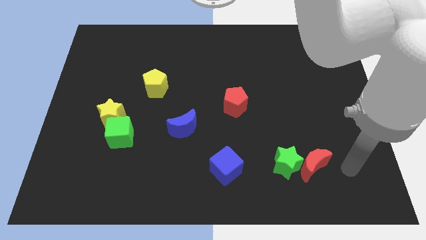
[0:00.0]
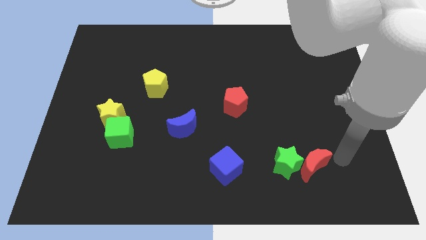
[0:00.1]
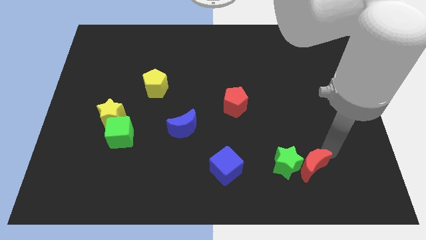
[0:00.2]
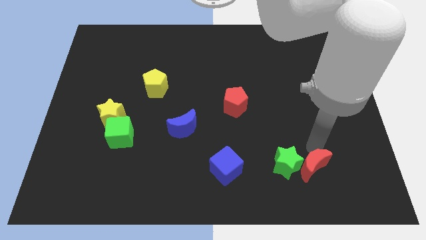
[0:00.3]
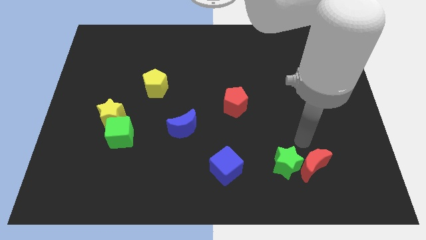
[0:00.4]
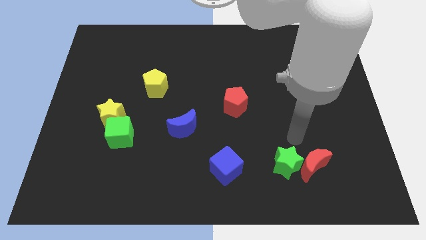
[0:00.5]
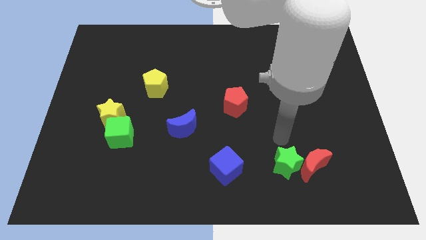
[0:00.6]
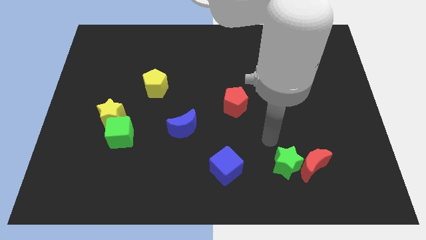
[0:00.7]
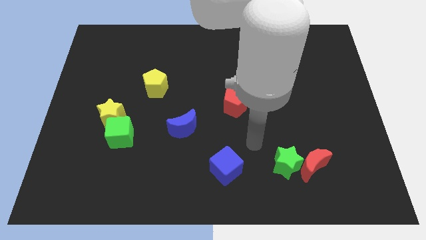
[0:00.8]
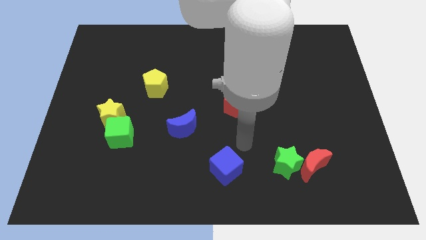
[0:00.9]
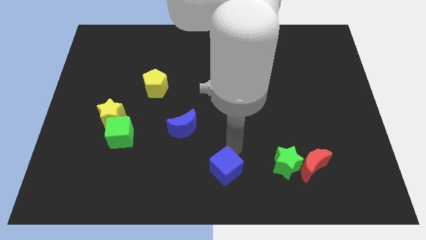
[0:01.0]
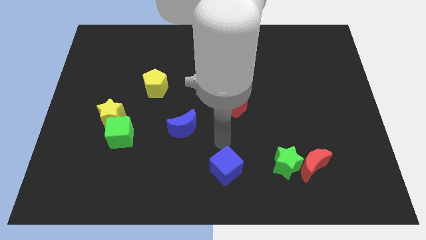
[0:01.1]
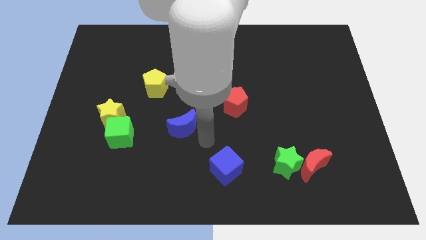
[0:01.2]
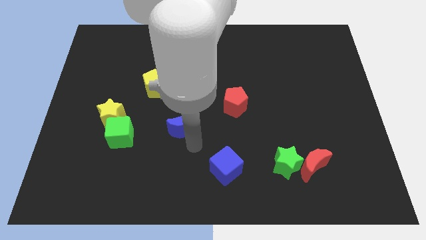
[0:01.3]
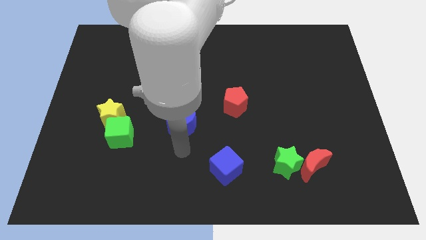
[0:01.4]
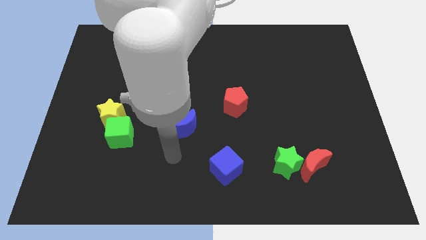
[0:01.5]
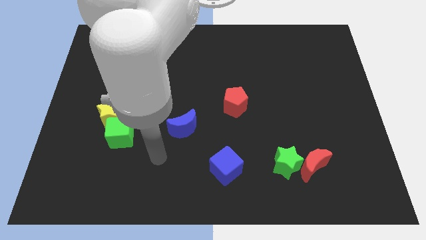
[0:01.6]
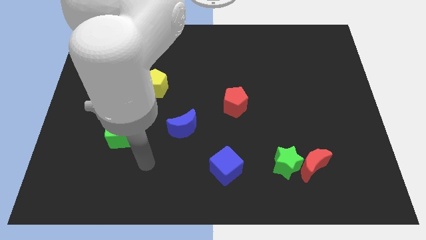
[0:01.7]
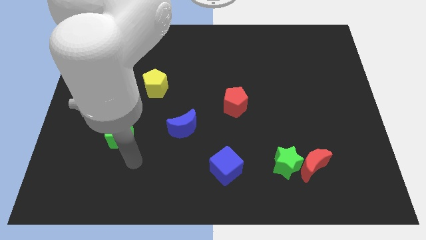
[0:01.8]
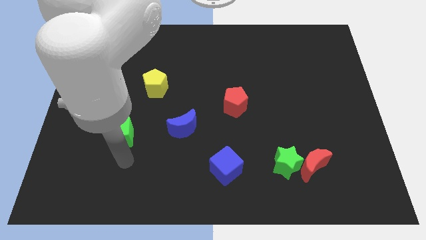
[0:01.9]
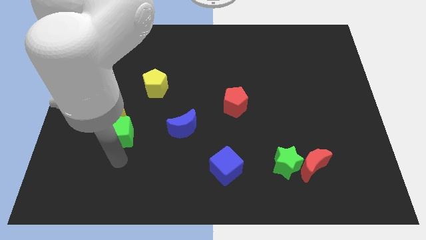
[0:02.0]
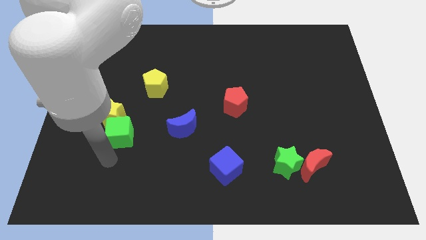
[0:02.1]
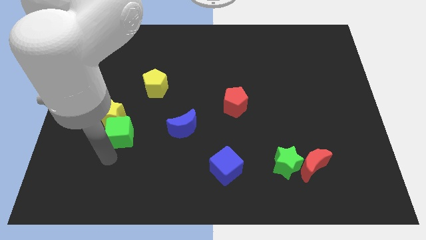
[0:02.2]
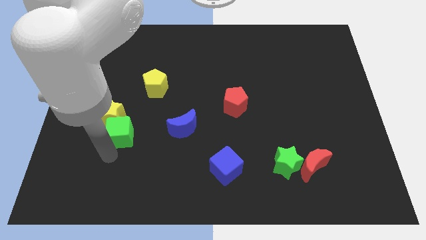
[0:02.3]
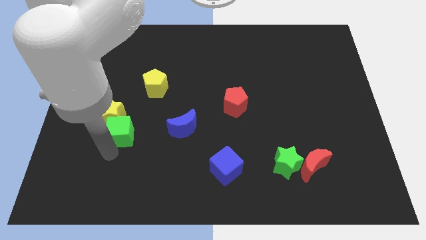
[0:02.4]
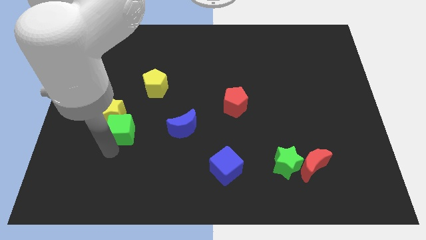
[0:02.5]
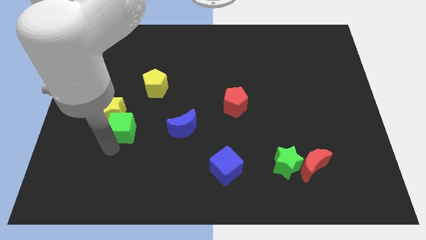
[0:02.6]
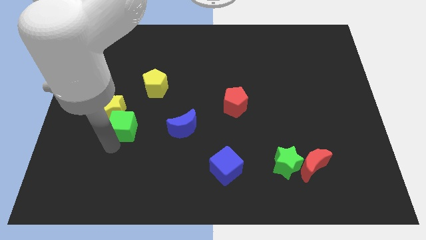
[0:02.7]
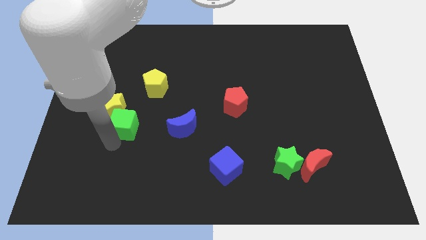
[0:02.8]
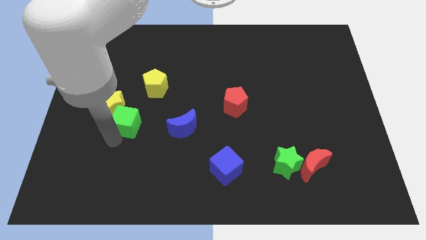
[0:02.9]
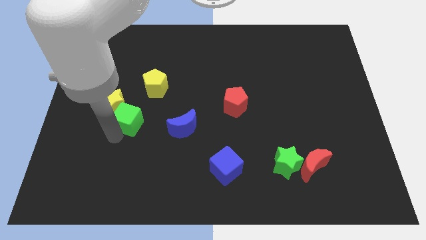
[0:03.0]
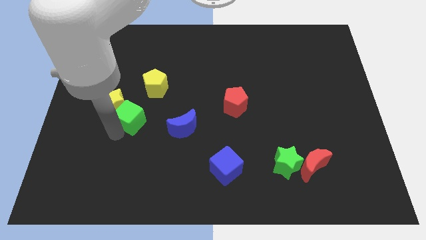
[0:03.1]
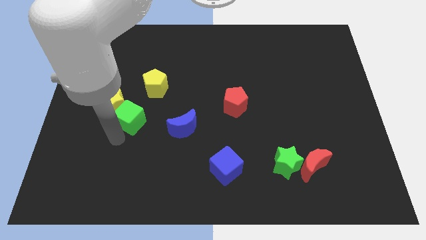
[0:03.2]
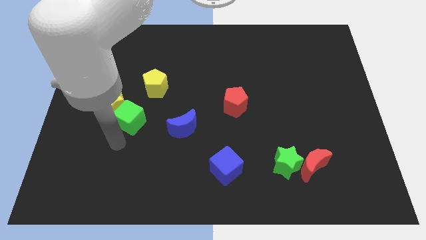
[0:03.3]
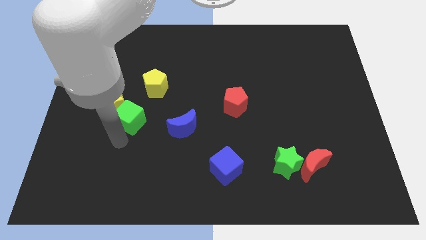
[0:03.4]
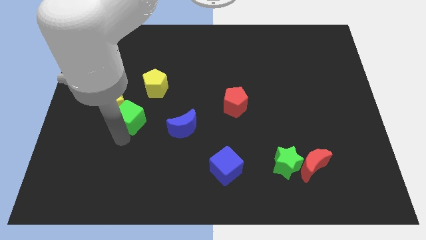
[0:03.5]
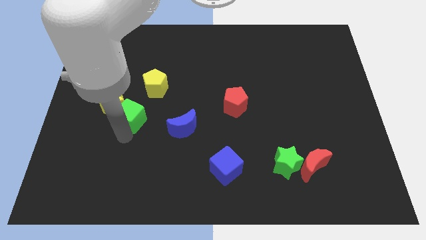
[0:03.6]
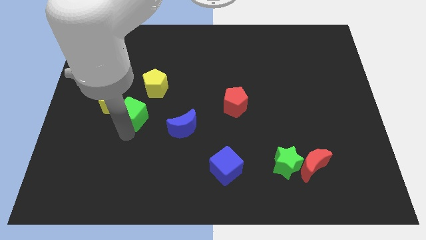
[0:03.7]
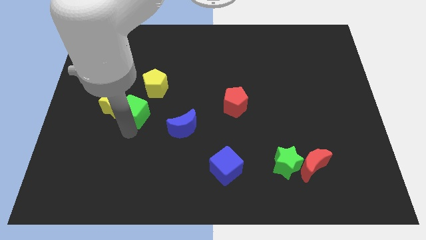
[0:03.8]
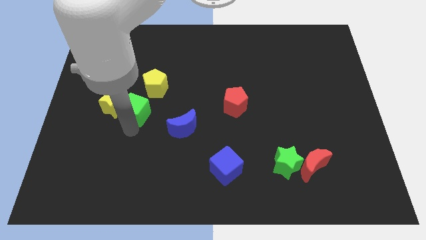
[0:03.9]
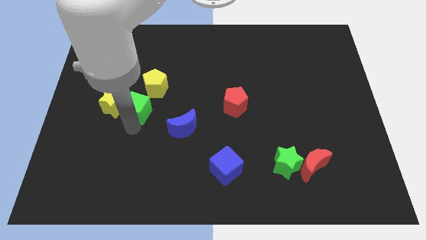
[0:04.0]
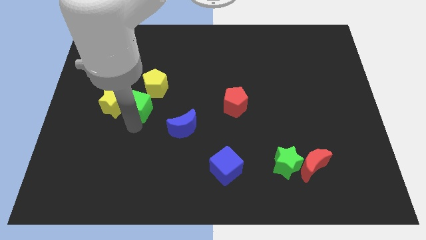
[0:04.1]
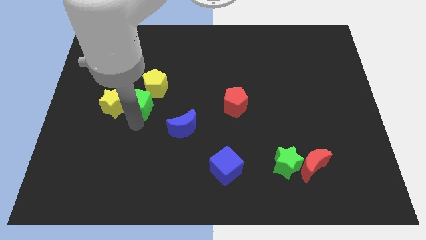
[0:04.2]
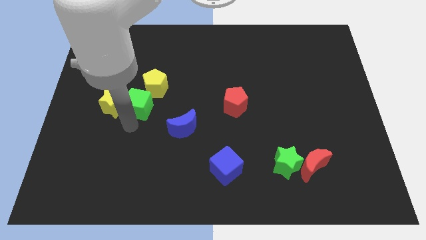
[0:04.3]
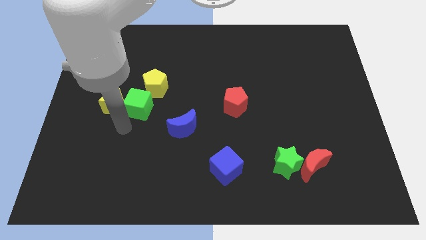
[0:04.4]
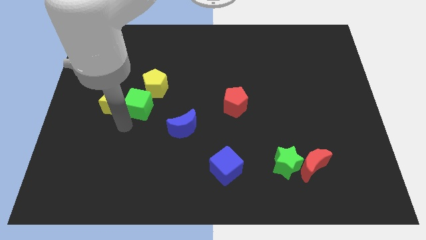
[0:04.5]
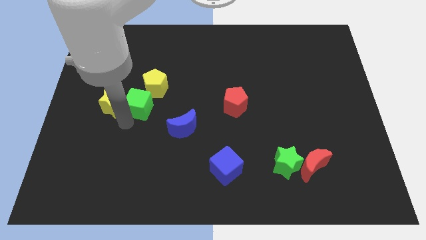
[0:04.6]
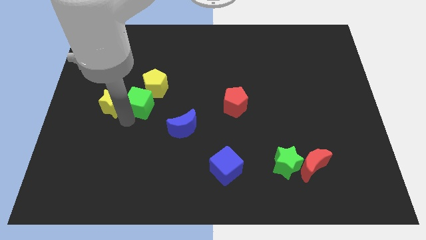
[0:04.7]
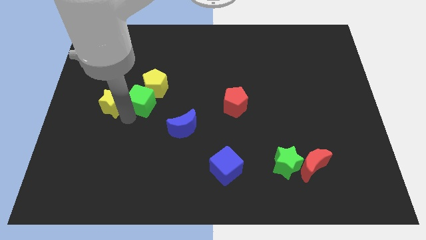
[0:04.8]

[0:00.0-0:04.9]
slide the green cube close to the yellow pentagon

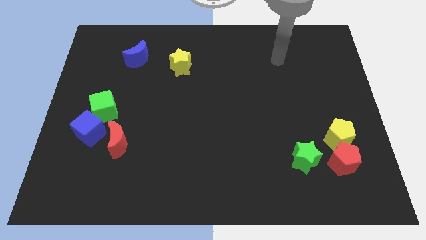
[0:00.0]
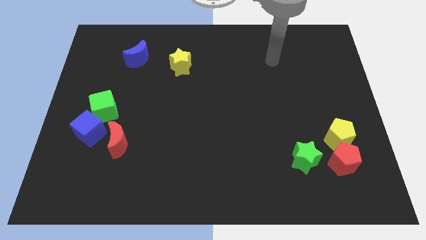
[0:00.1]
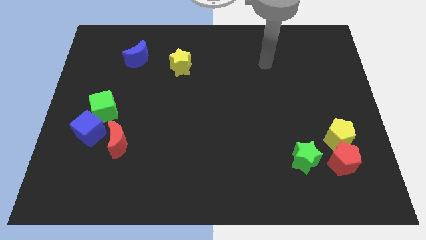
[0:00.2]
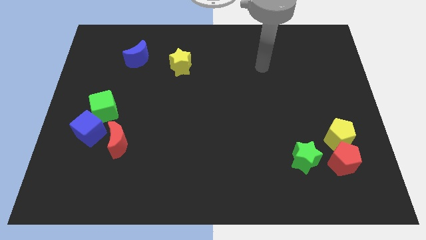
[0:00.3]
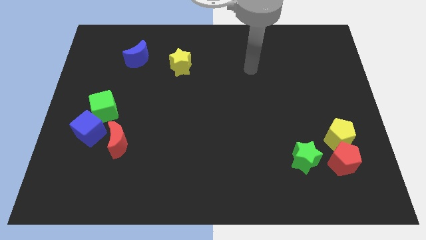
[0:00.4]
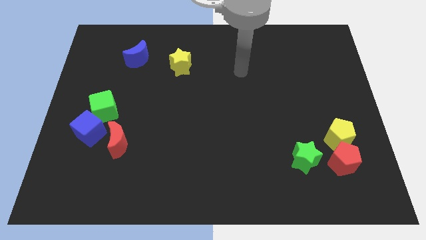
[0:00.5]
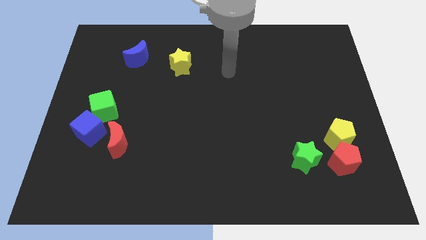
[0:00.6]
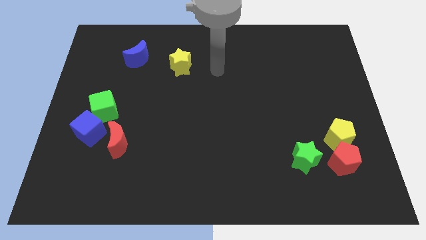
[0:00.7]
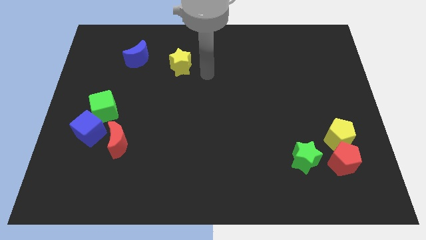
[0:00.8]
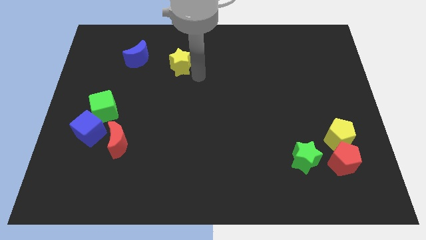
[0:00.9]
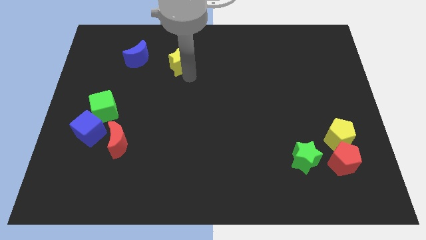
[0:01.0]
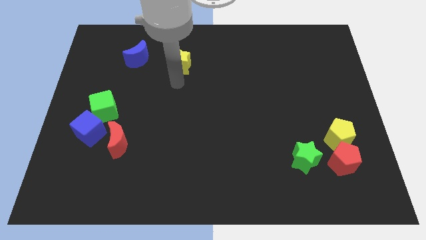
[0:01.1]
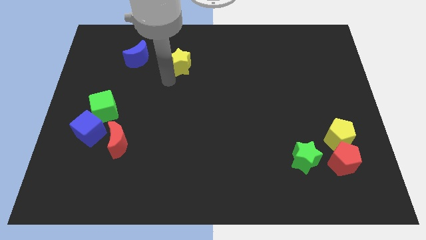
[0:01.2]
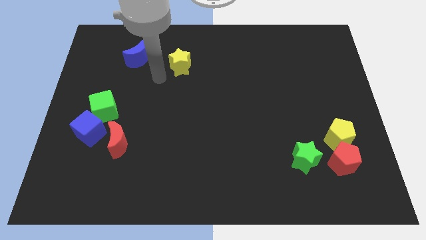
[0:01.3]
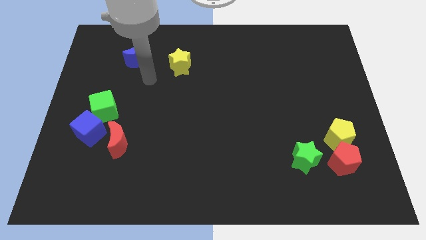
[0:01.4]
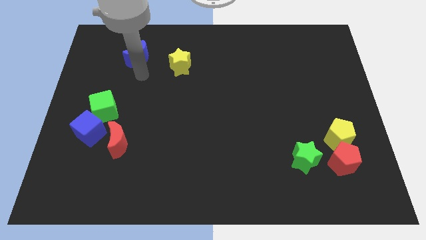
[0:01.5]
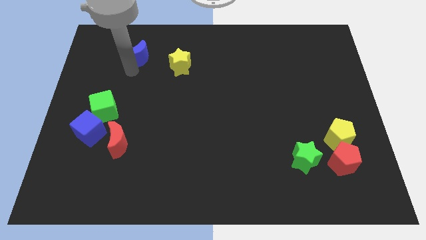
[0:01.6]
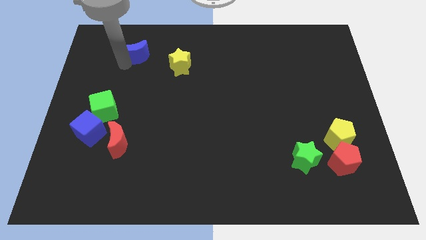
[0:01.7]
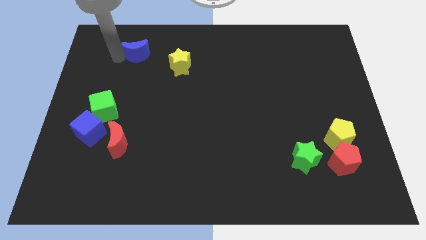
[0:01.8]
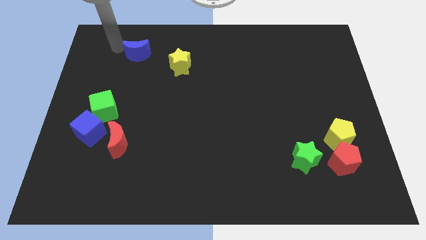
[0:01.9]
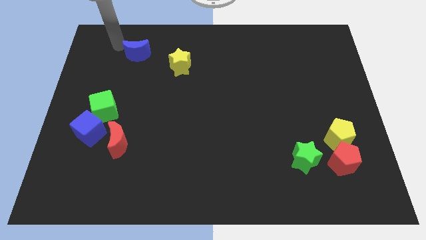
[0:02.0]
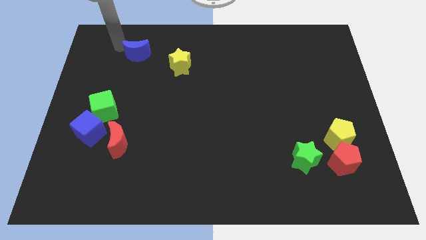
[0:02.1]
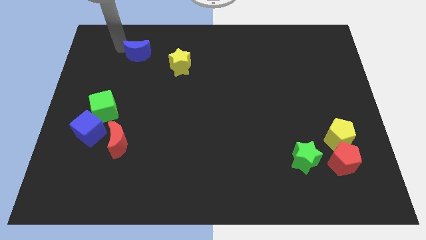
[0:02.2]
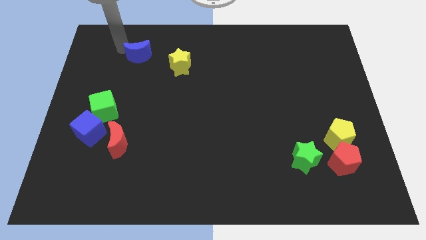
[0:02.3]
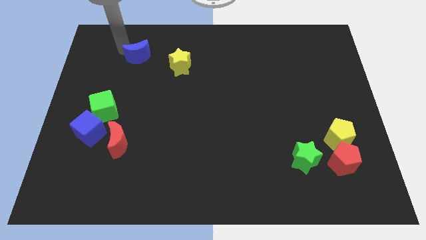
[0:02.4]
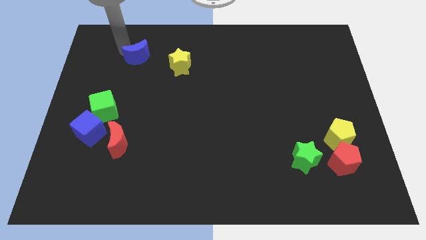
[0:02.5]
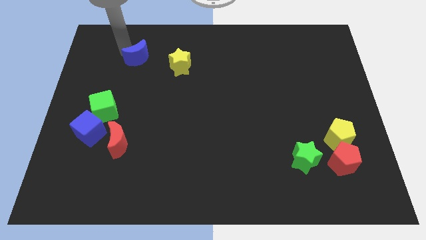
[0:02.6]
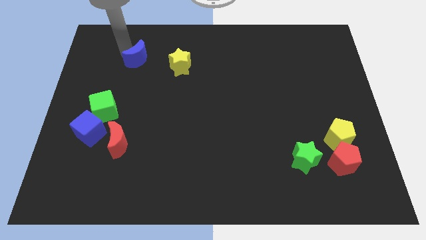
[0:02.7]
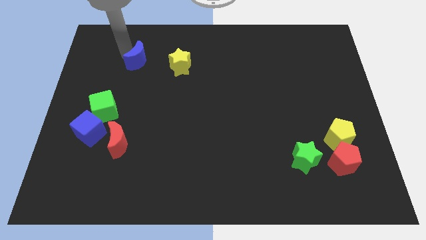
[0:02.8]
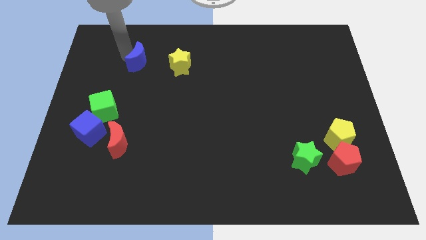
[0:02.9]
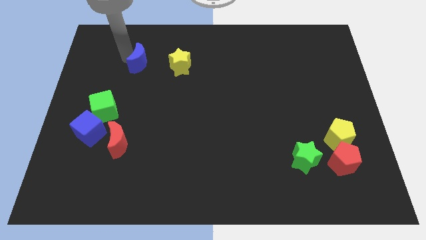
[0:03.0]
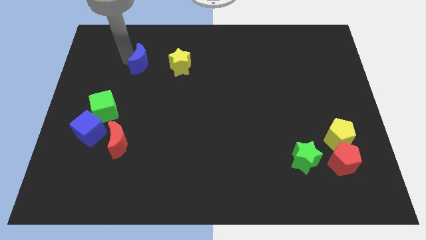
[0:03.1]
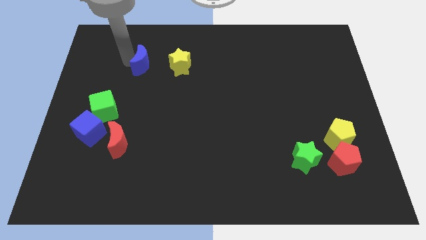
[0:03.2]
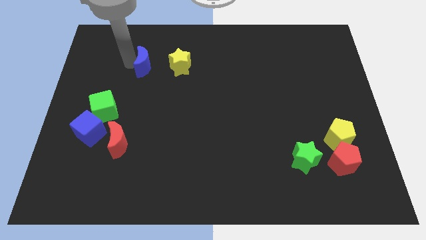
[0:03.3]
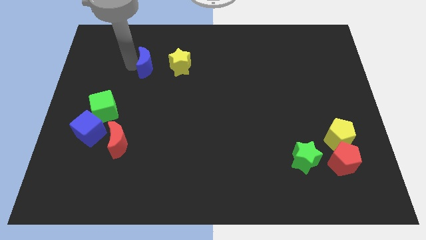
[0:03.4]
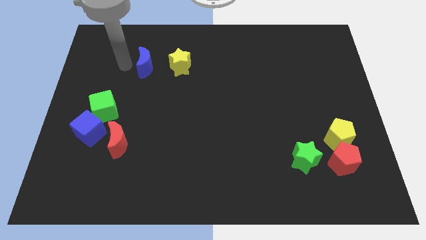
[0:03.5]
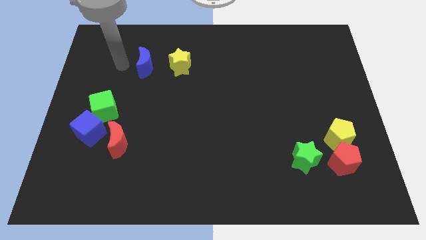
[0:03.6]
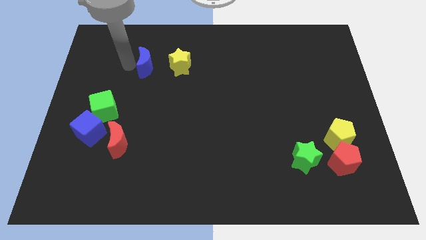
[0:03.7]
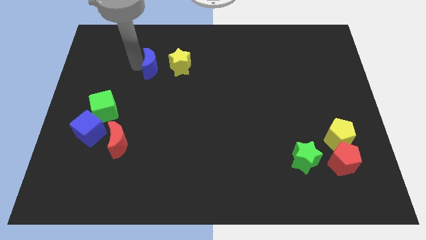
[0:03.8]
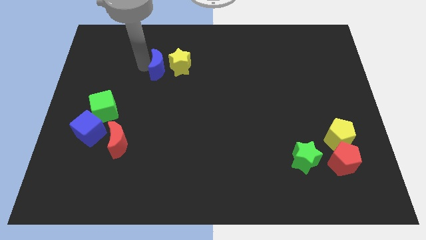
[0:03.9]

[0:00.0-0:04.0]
push the blue moon to the yellow star
